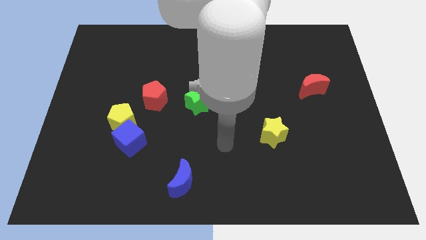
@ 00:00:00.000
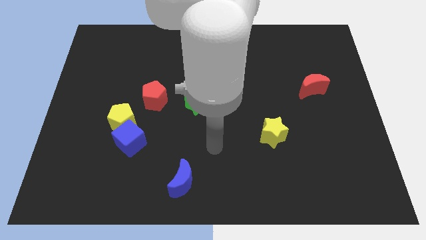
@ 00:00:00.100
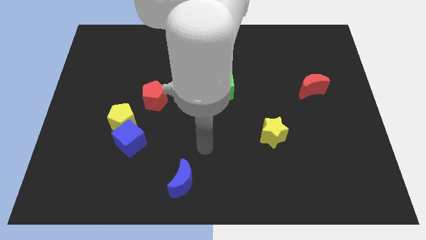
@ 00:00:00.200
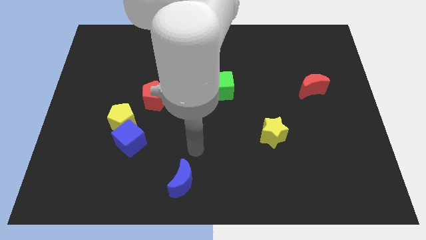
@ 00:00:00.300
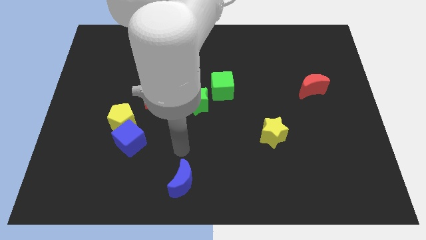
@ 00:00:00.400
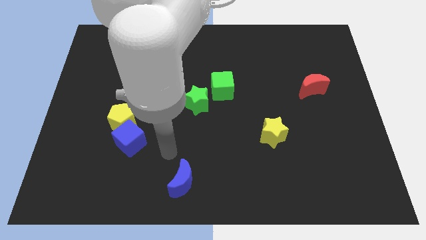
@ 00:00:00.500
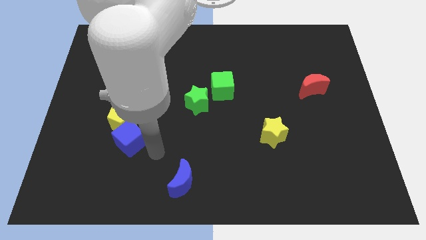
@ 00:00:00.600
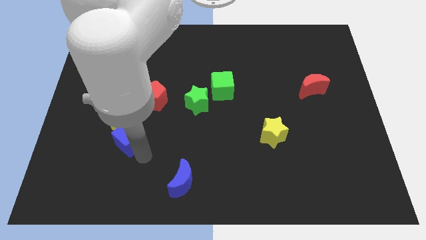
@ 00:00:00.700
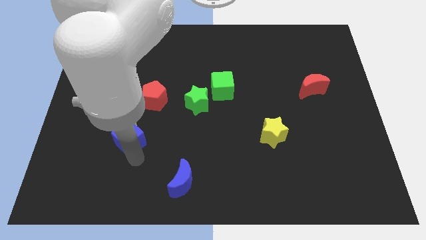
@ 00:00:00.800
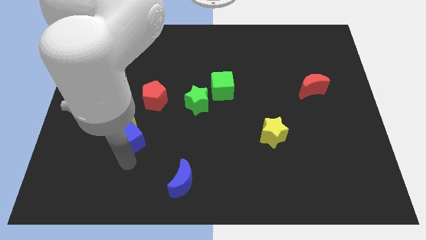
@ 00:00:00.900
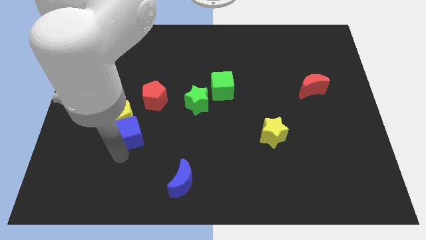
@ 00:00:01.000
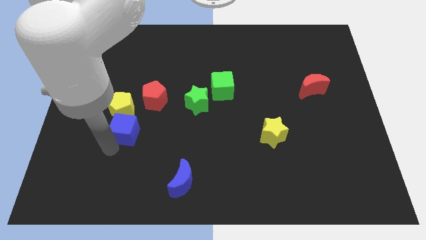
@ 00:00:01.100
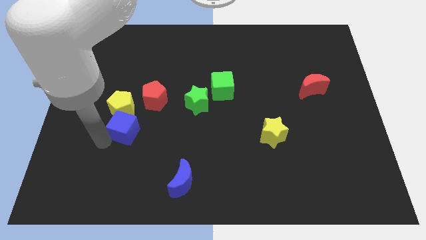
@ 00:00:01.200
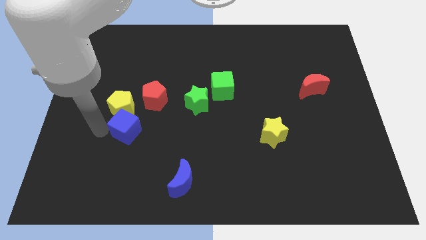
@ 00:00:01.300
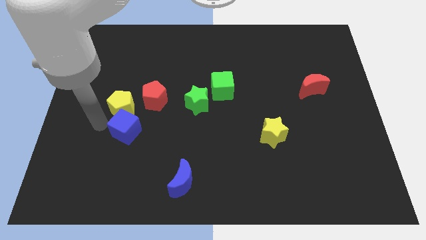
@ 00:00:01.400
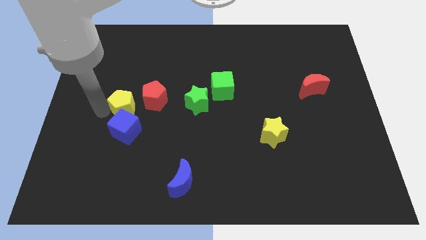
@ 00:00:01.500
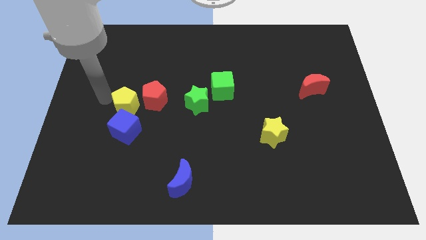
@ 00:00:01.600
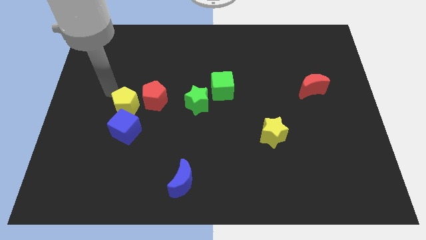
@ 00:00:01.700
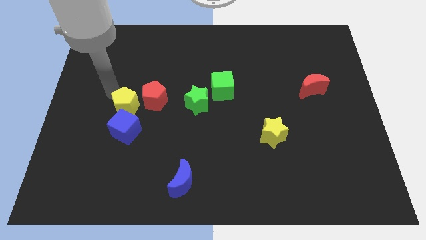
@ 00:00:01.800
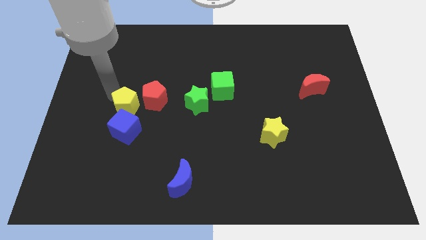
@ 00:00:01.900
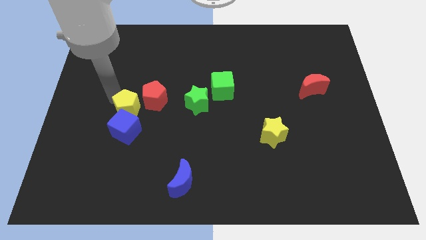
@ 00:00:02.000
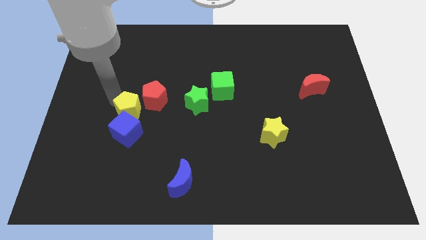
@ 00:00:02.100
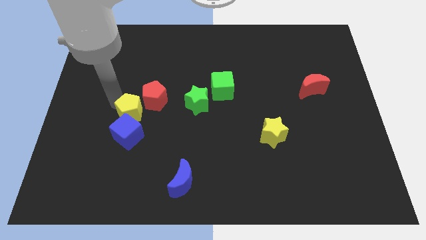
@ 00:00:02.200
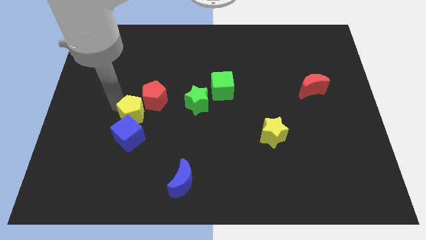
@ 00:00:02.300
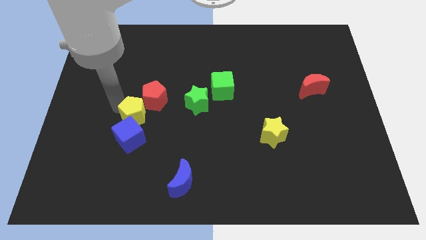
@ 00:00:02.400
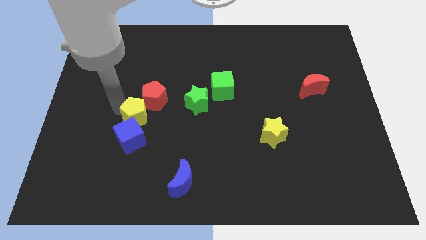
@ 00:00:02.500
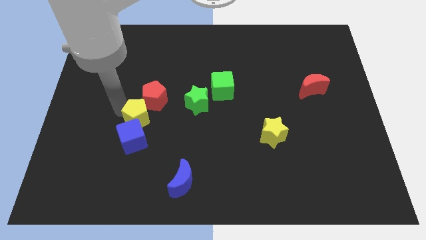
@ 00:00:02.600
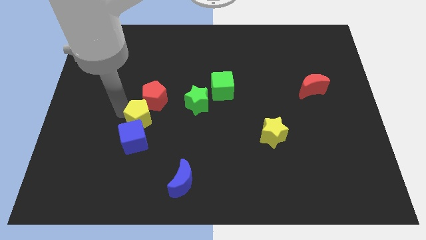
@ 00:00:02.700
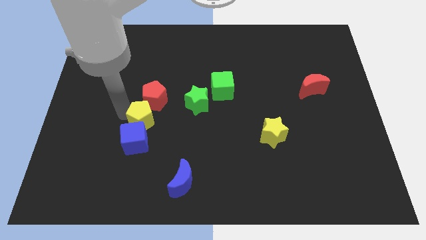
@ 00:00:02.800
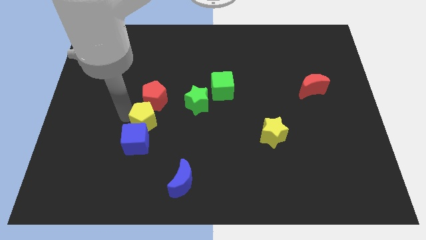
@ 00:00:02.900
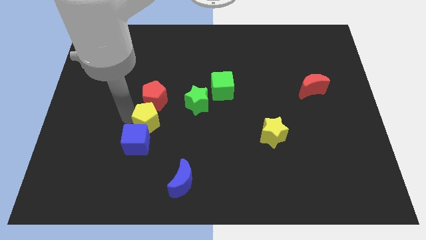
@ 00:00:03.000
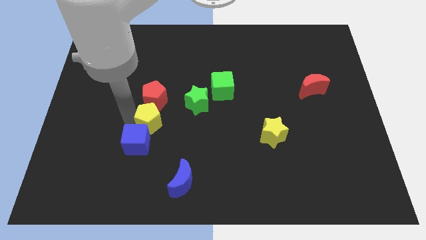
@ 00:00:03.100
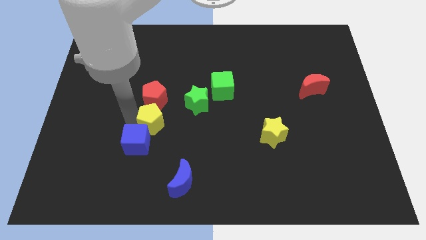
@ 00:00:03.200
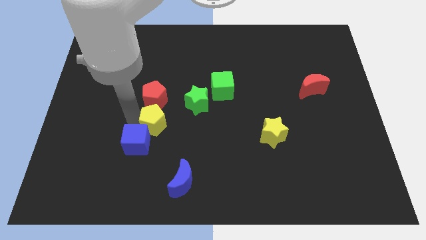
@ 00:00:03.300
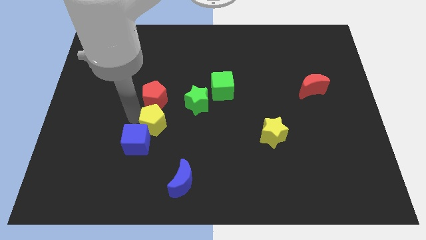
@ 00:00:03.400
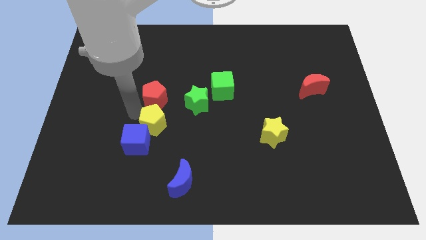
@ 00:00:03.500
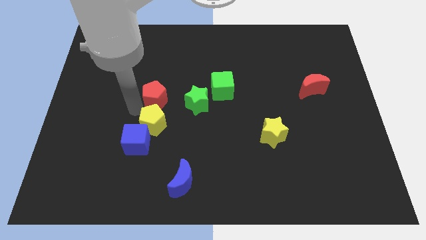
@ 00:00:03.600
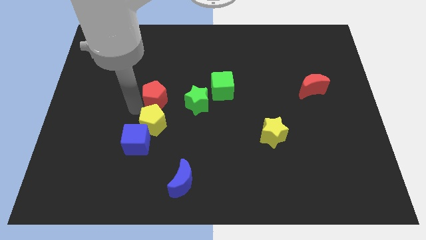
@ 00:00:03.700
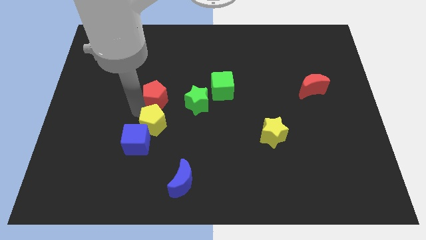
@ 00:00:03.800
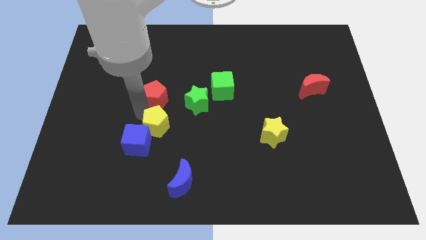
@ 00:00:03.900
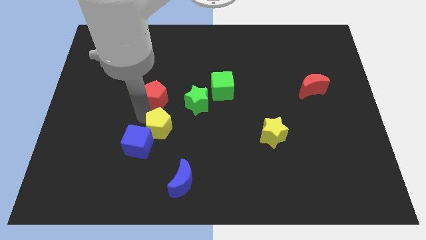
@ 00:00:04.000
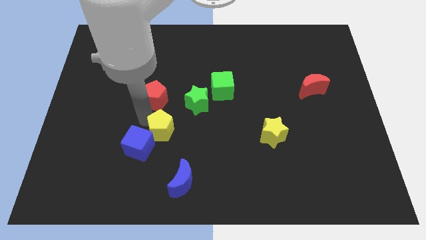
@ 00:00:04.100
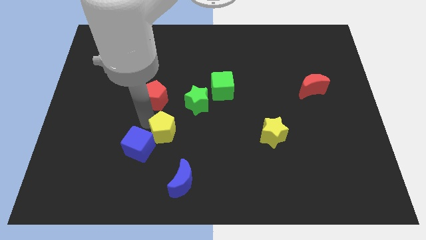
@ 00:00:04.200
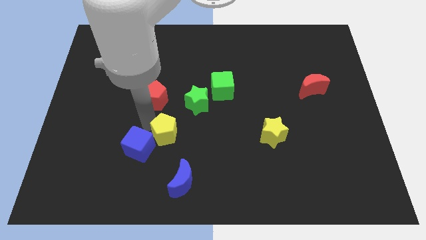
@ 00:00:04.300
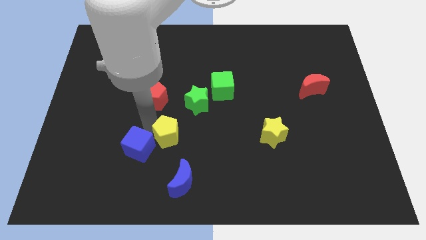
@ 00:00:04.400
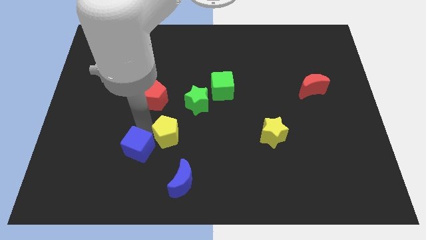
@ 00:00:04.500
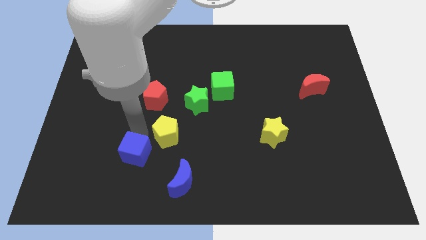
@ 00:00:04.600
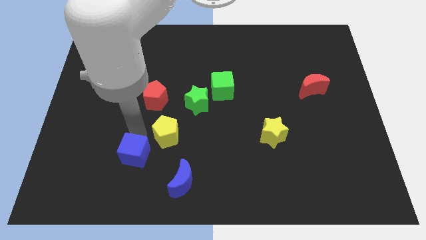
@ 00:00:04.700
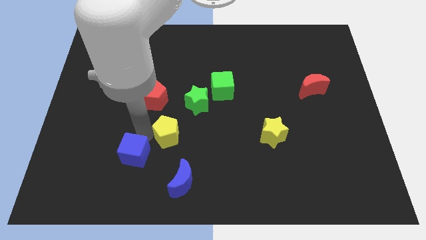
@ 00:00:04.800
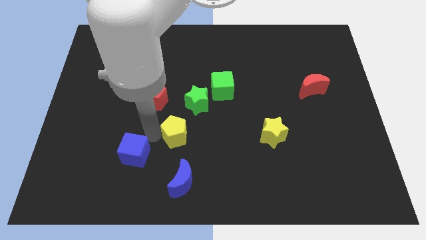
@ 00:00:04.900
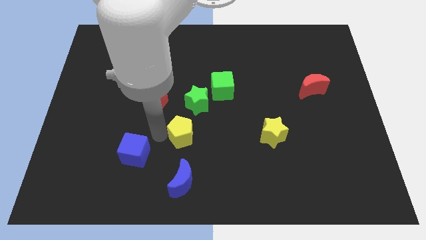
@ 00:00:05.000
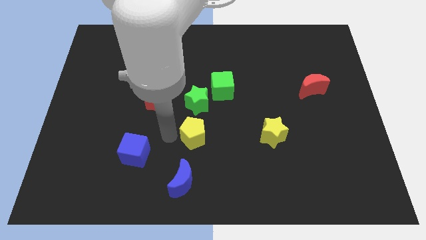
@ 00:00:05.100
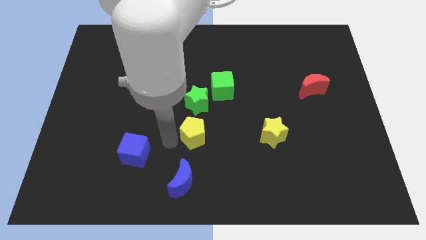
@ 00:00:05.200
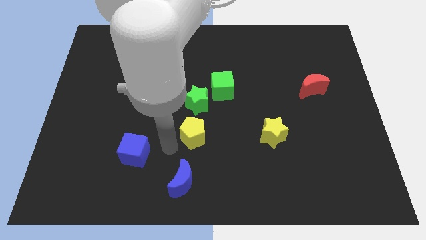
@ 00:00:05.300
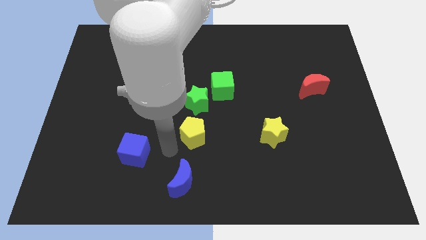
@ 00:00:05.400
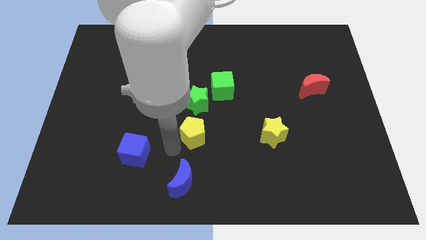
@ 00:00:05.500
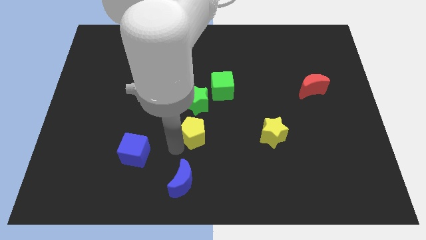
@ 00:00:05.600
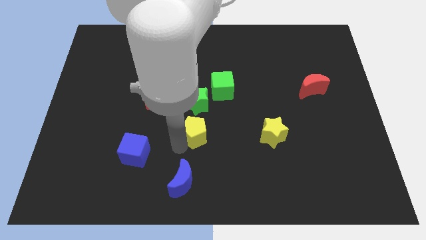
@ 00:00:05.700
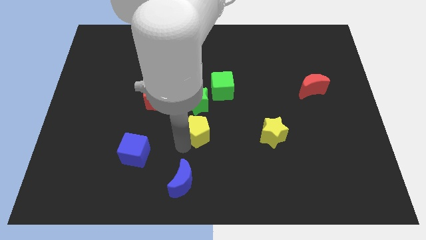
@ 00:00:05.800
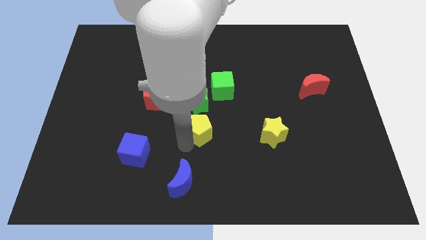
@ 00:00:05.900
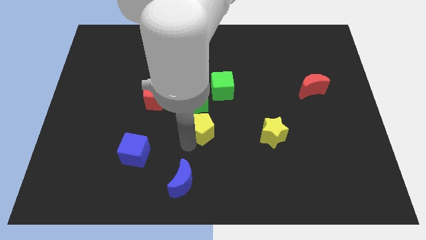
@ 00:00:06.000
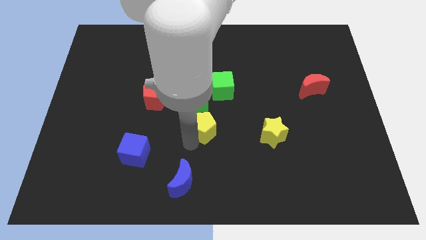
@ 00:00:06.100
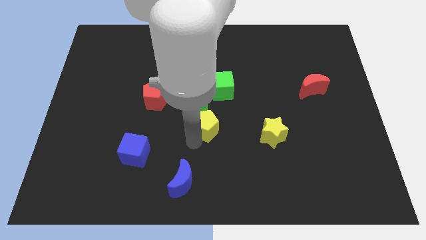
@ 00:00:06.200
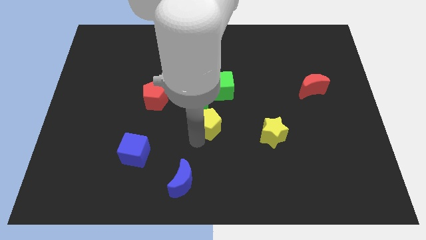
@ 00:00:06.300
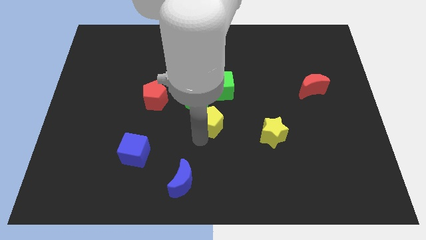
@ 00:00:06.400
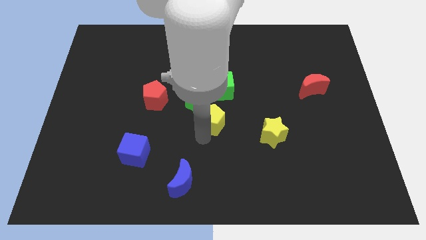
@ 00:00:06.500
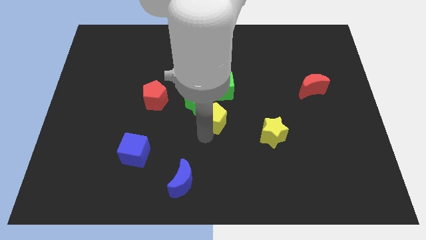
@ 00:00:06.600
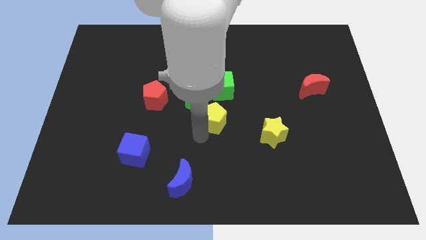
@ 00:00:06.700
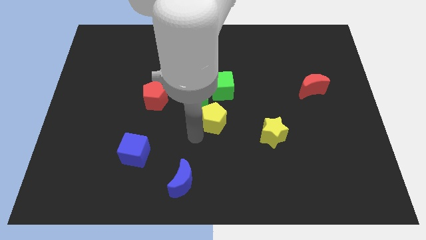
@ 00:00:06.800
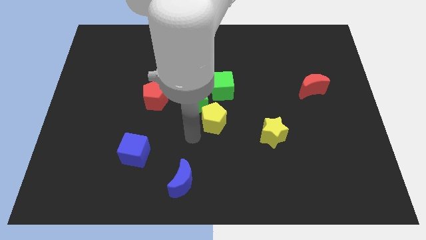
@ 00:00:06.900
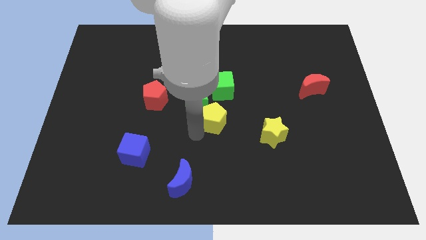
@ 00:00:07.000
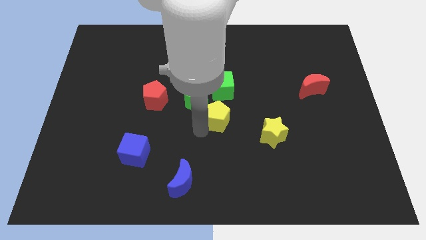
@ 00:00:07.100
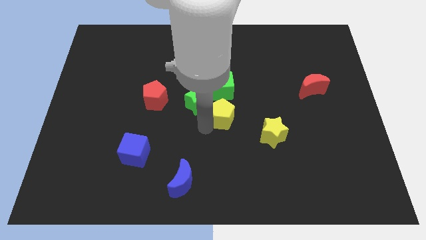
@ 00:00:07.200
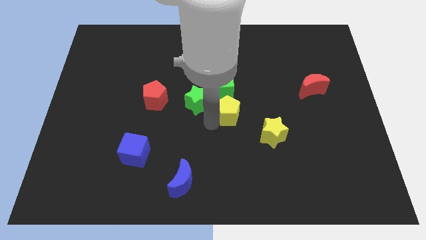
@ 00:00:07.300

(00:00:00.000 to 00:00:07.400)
slide the yellow pentagon to the bottom right of the green cube
